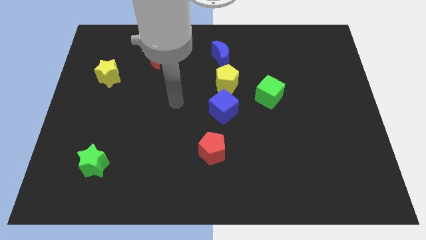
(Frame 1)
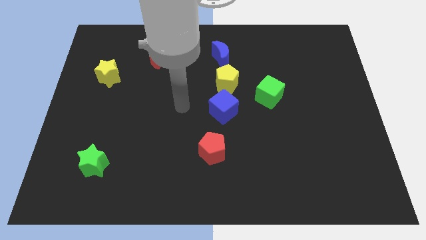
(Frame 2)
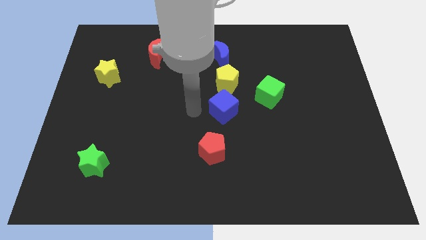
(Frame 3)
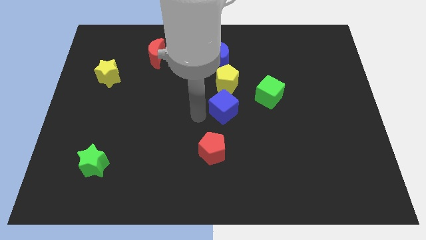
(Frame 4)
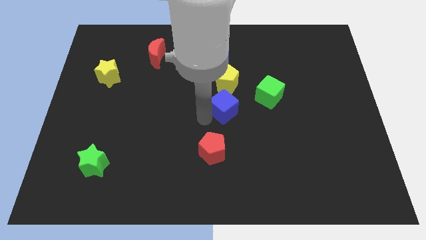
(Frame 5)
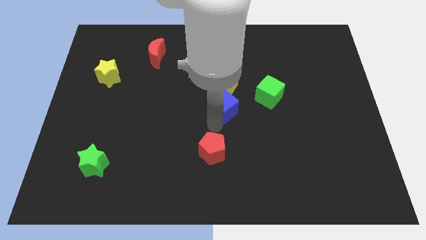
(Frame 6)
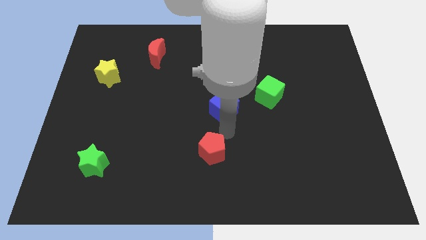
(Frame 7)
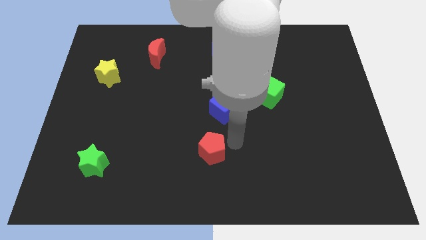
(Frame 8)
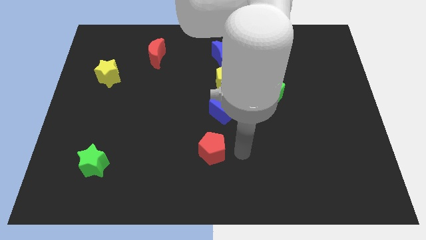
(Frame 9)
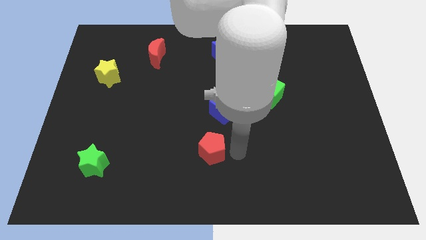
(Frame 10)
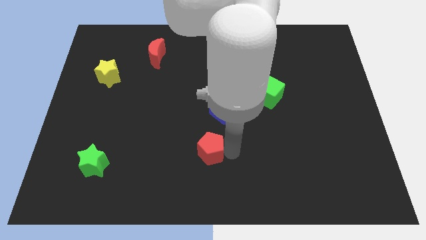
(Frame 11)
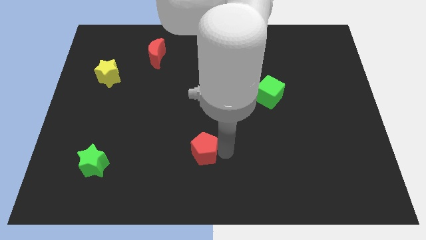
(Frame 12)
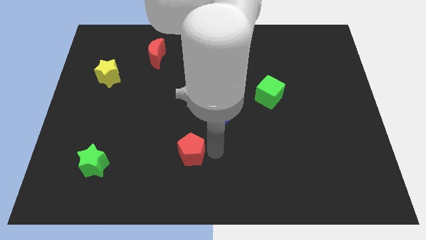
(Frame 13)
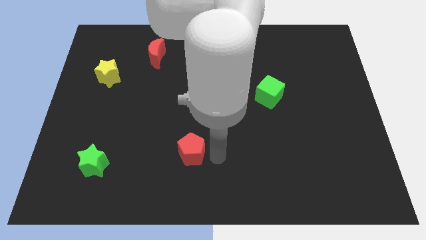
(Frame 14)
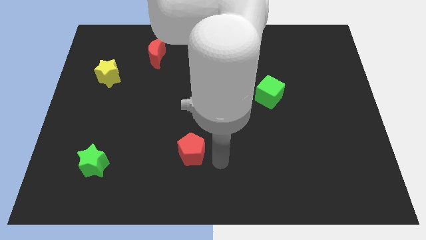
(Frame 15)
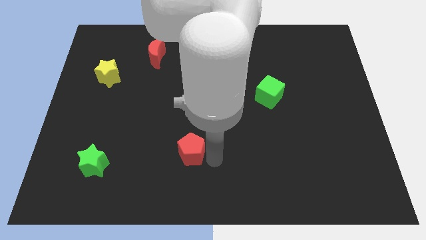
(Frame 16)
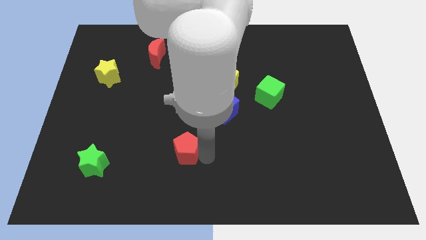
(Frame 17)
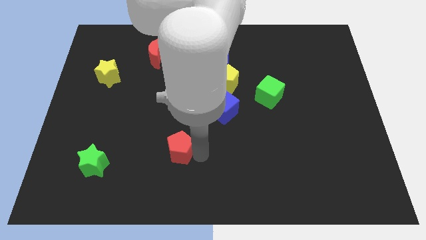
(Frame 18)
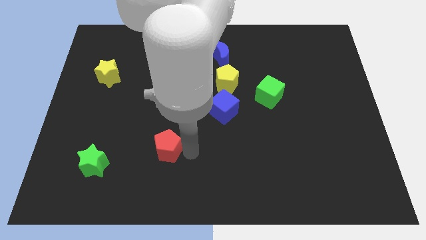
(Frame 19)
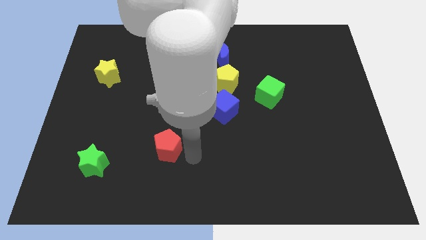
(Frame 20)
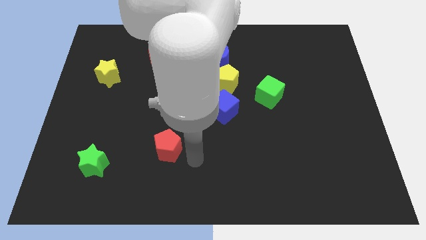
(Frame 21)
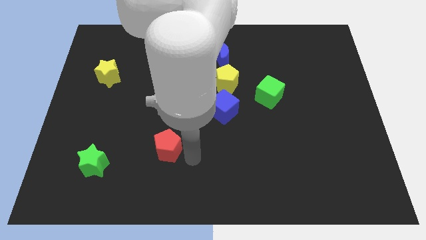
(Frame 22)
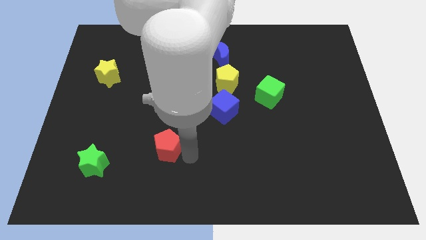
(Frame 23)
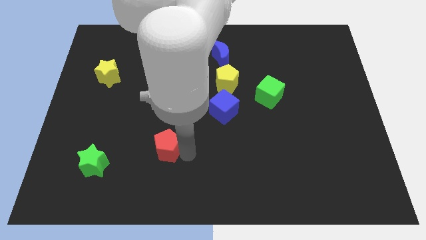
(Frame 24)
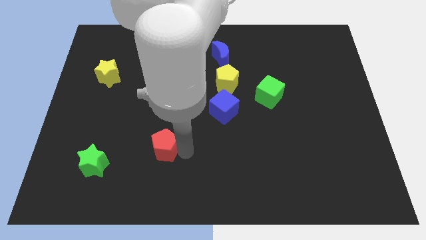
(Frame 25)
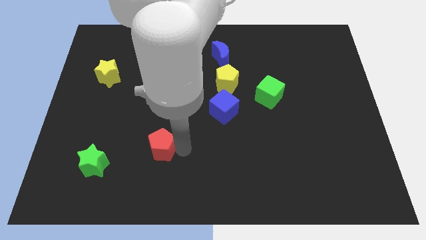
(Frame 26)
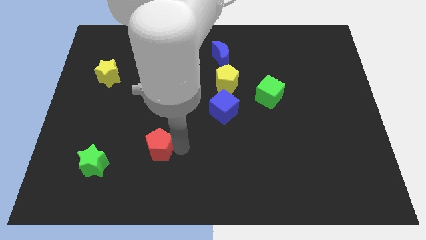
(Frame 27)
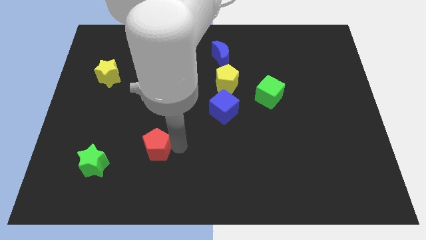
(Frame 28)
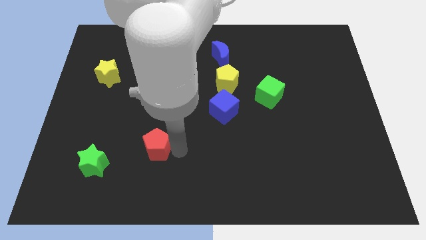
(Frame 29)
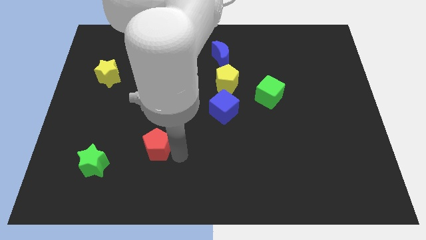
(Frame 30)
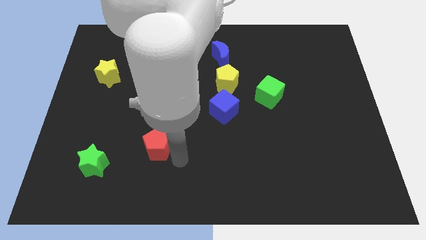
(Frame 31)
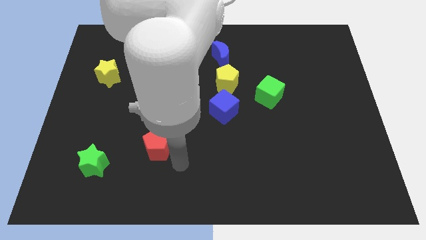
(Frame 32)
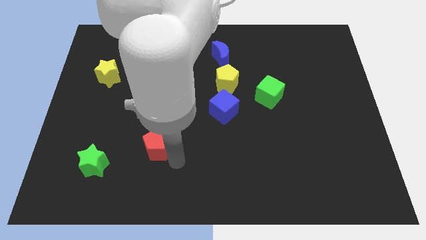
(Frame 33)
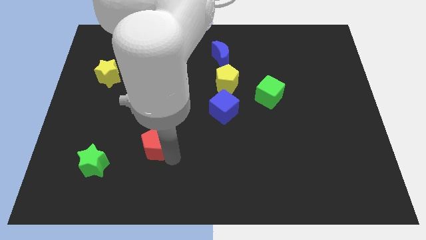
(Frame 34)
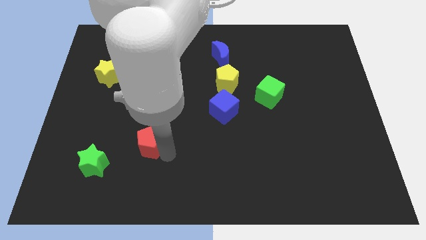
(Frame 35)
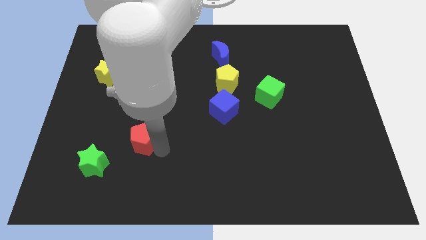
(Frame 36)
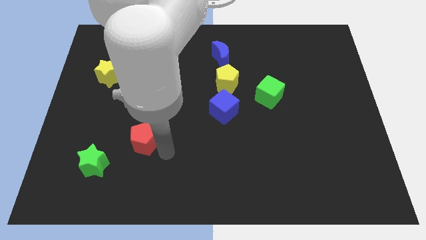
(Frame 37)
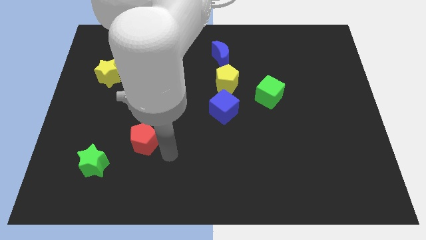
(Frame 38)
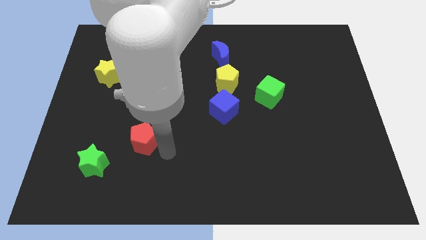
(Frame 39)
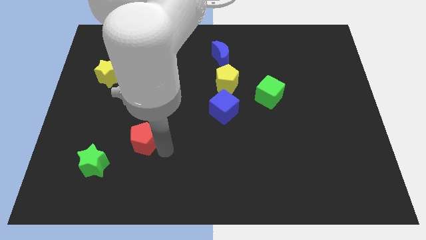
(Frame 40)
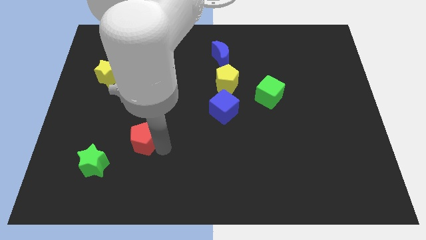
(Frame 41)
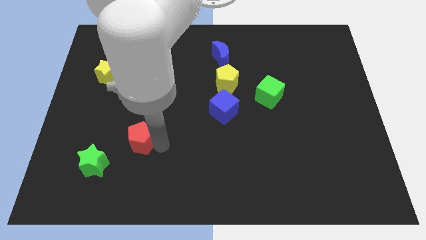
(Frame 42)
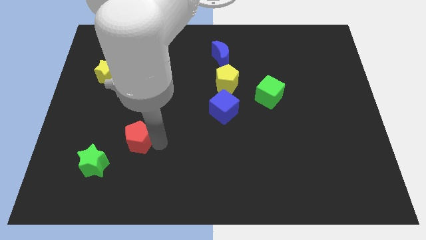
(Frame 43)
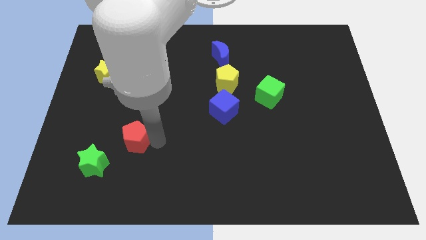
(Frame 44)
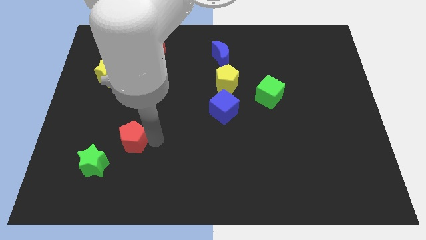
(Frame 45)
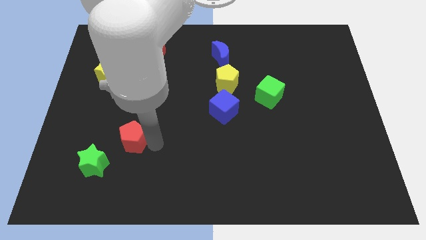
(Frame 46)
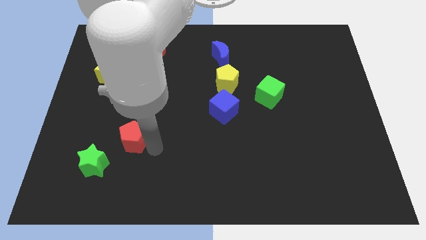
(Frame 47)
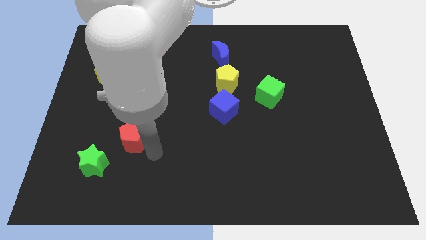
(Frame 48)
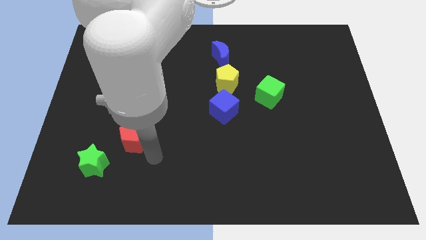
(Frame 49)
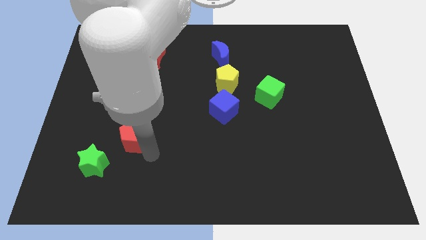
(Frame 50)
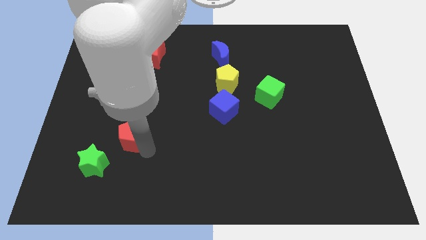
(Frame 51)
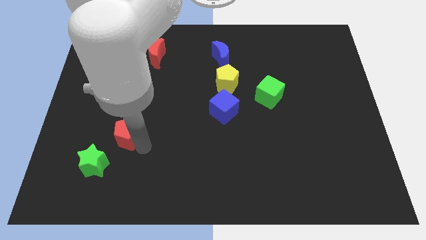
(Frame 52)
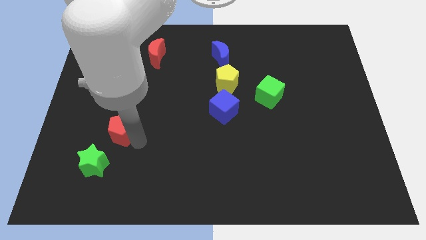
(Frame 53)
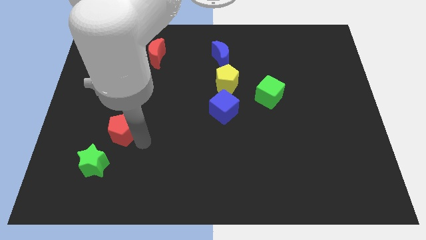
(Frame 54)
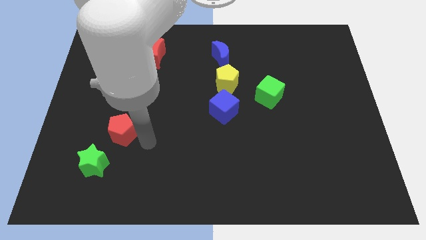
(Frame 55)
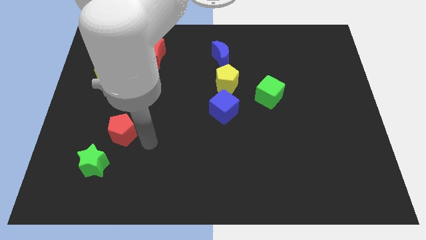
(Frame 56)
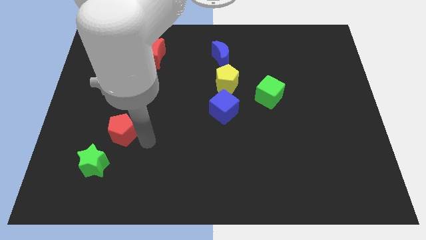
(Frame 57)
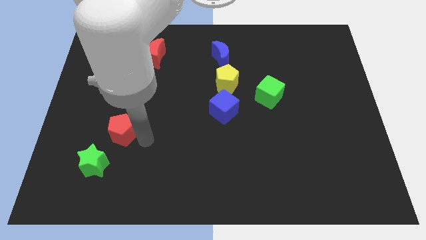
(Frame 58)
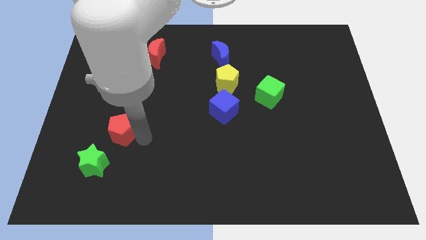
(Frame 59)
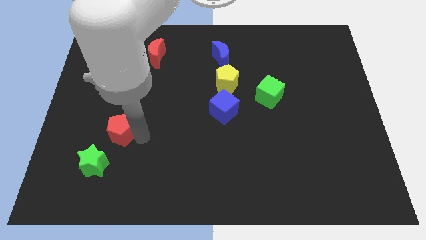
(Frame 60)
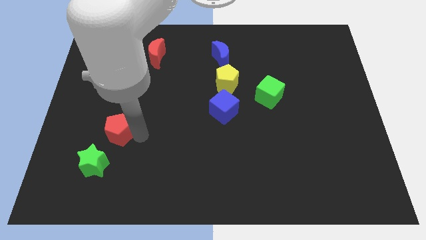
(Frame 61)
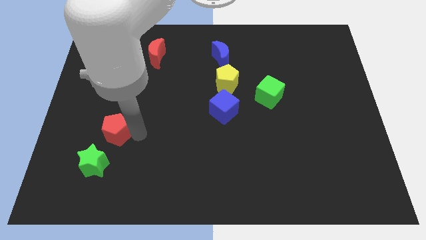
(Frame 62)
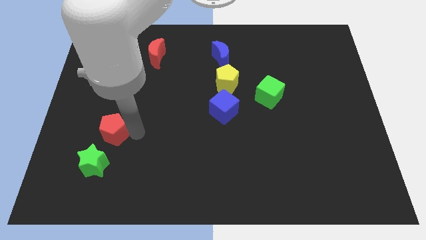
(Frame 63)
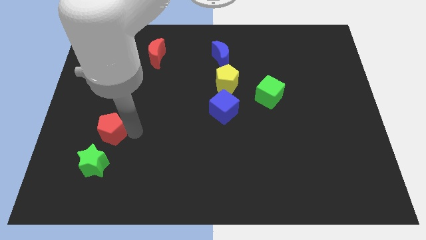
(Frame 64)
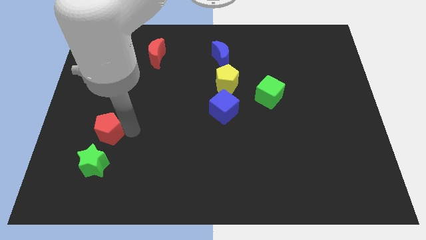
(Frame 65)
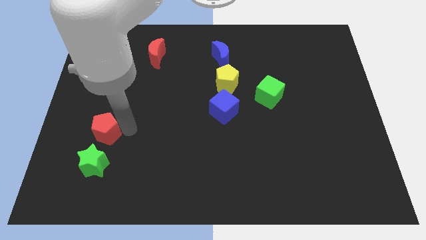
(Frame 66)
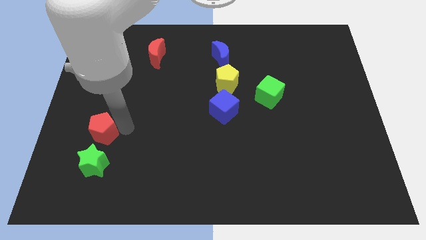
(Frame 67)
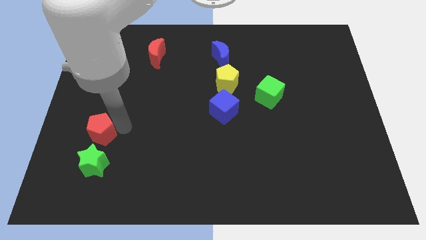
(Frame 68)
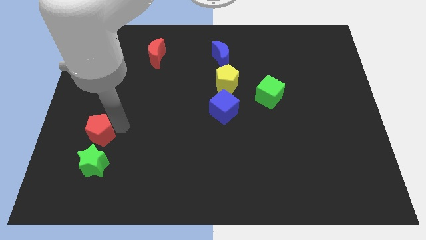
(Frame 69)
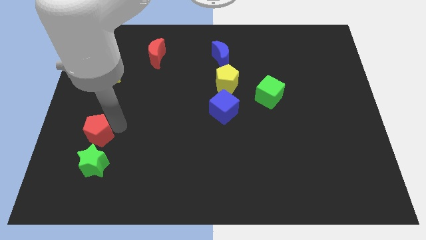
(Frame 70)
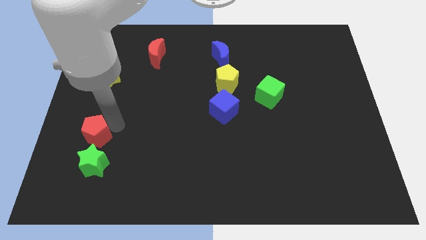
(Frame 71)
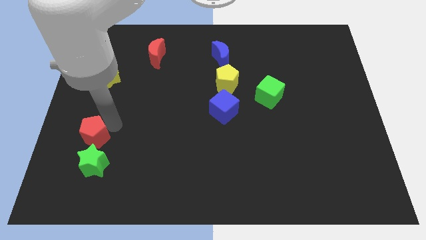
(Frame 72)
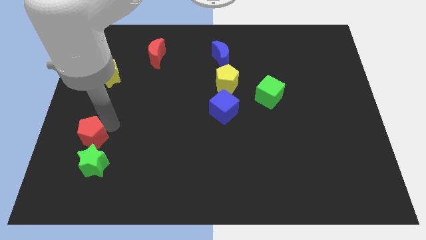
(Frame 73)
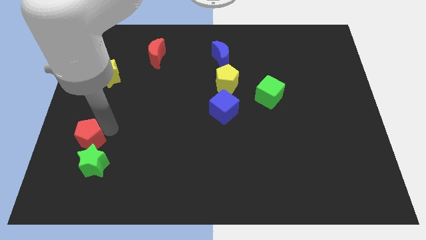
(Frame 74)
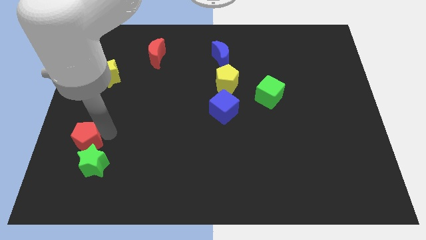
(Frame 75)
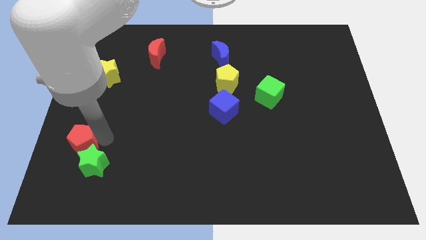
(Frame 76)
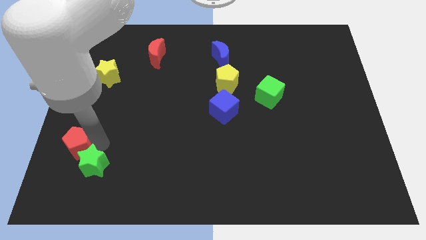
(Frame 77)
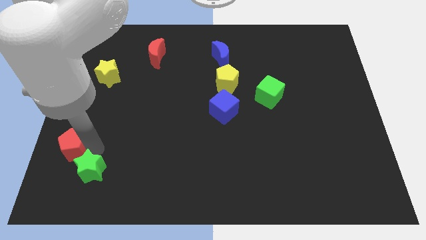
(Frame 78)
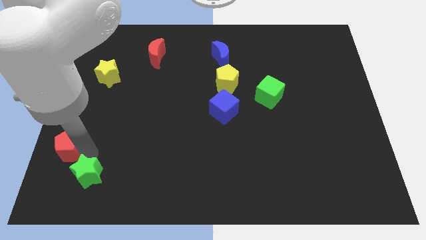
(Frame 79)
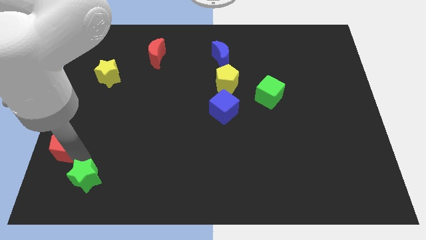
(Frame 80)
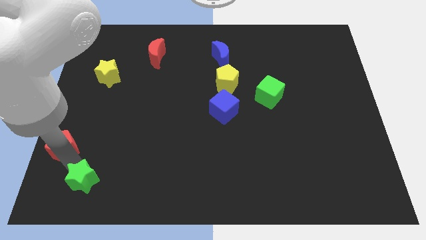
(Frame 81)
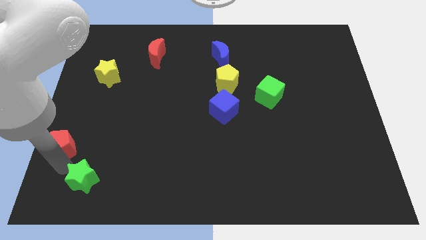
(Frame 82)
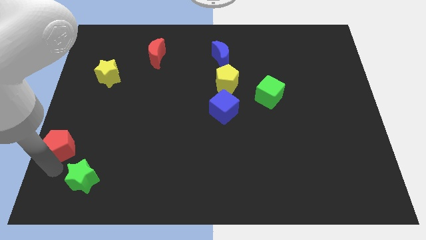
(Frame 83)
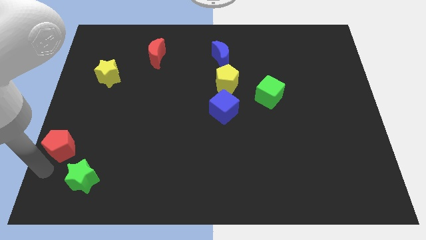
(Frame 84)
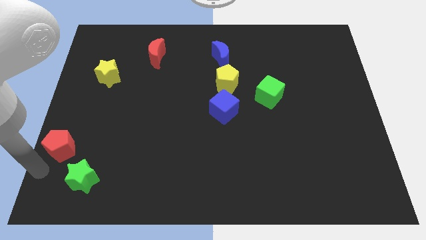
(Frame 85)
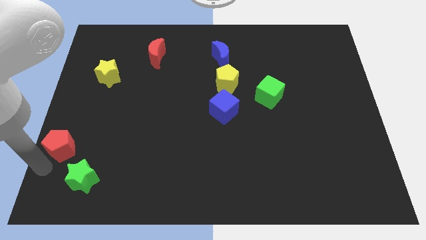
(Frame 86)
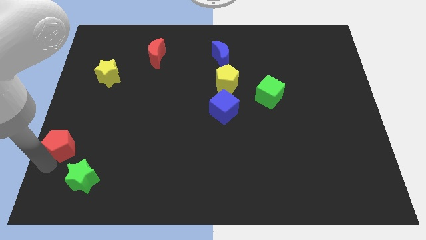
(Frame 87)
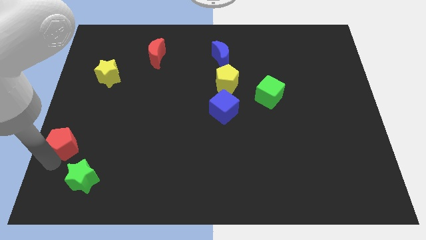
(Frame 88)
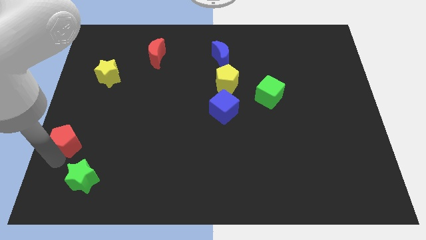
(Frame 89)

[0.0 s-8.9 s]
push the red pentagon to the left side of the board
